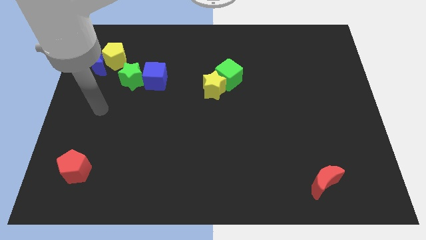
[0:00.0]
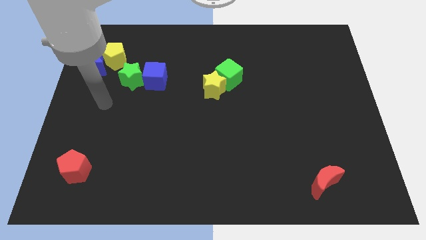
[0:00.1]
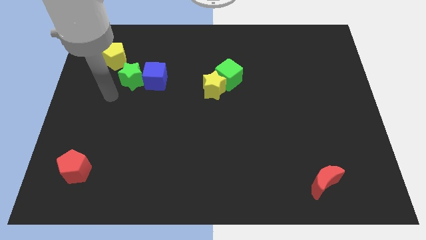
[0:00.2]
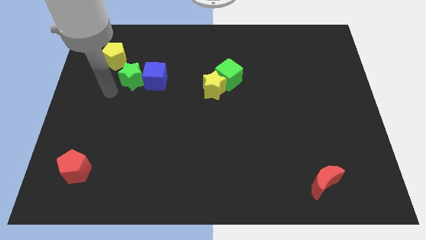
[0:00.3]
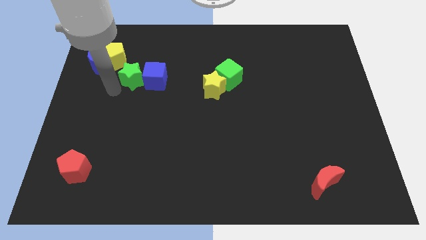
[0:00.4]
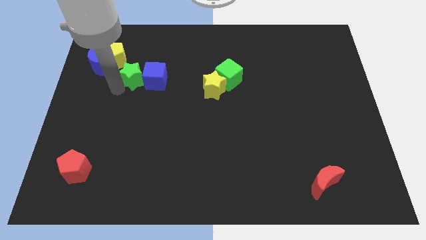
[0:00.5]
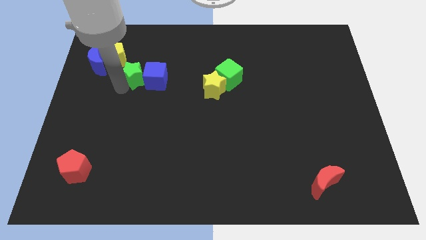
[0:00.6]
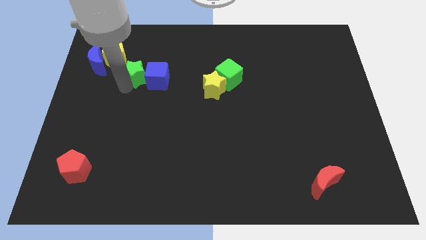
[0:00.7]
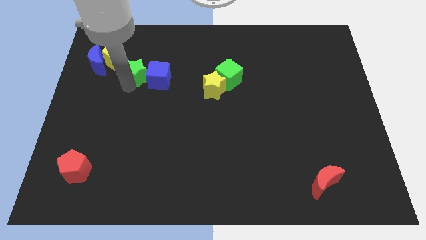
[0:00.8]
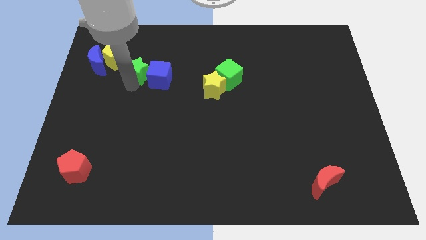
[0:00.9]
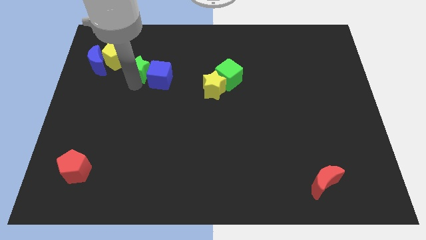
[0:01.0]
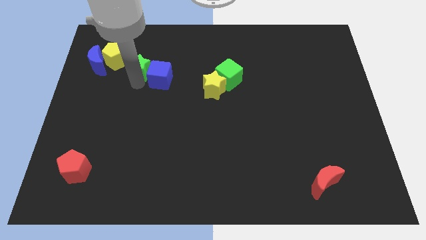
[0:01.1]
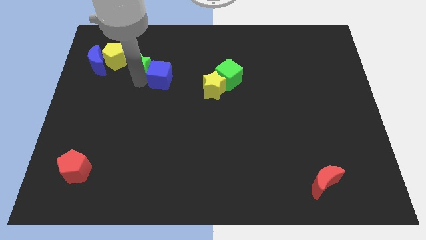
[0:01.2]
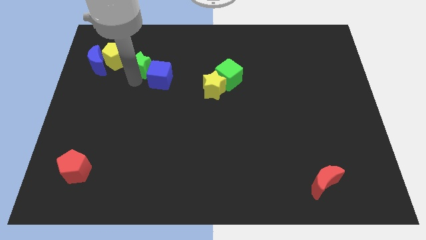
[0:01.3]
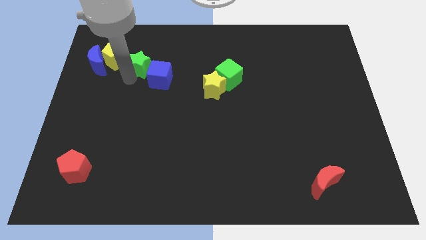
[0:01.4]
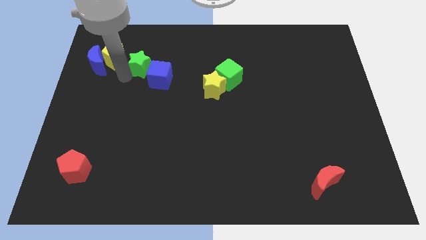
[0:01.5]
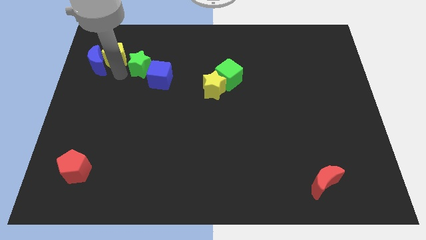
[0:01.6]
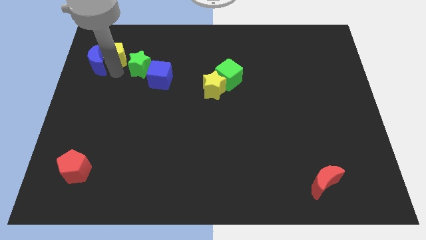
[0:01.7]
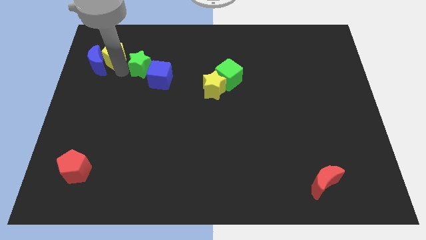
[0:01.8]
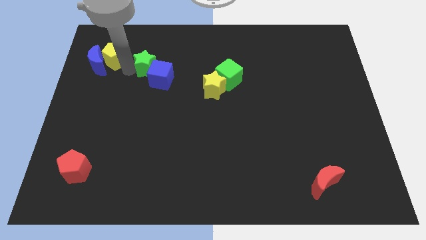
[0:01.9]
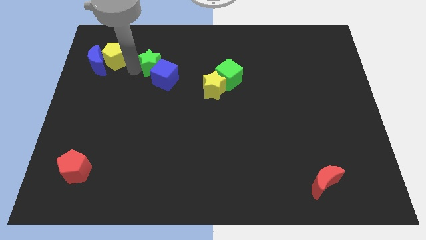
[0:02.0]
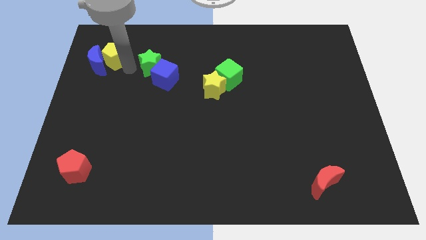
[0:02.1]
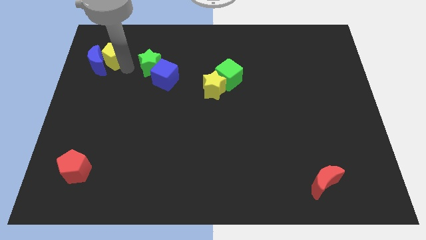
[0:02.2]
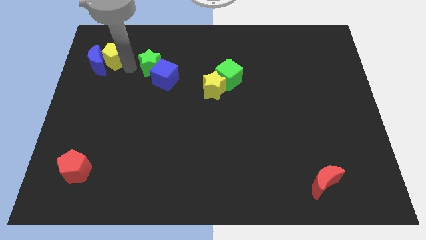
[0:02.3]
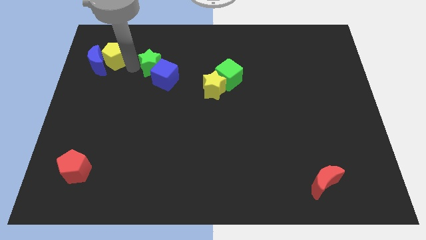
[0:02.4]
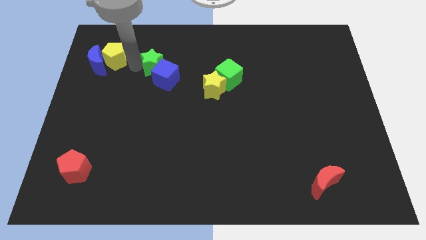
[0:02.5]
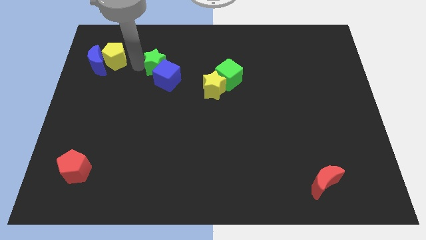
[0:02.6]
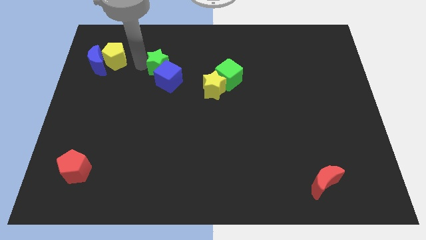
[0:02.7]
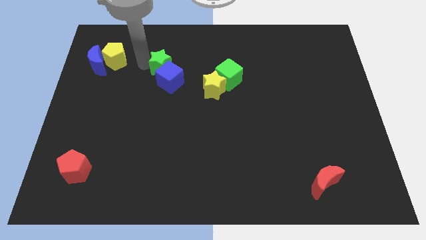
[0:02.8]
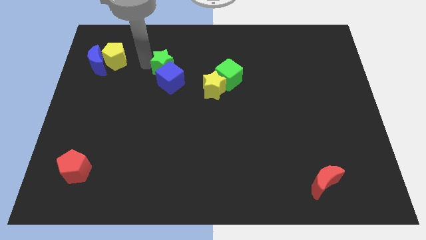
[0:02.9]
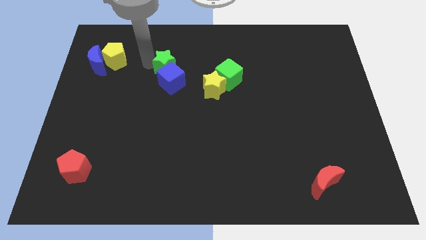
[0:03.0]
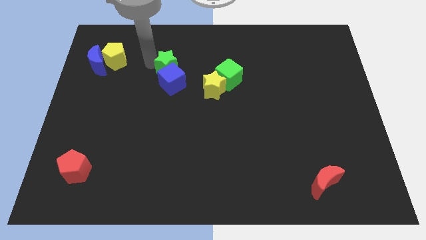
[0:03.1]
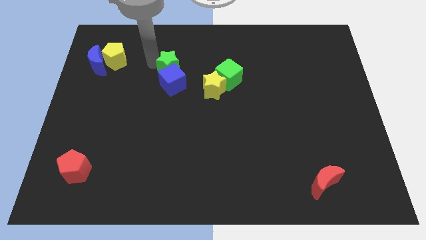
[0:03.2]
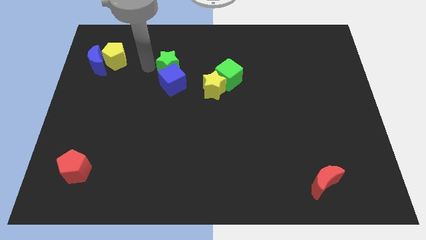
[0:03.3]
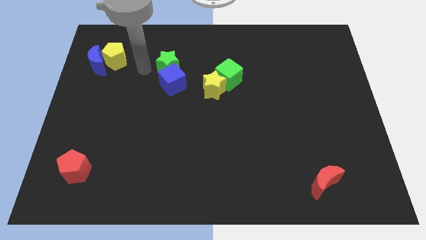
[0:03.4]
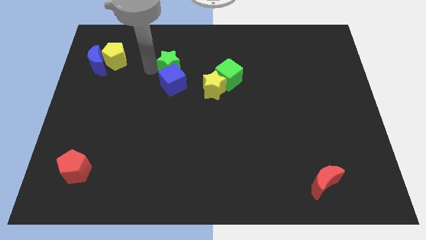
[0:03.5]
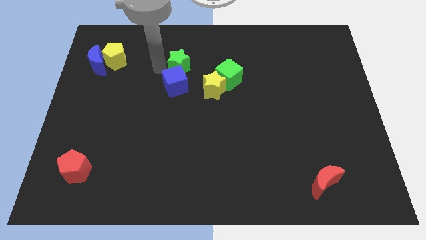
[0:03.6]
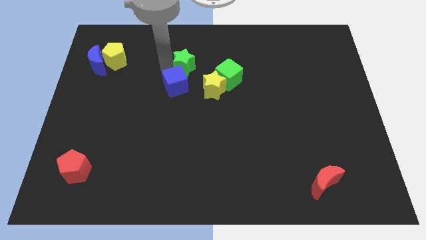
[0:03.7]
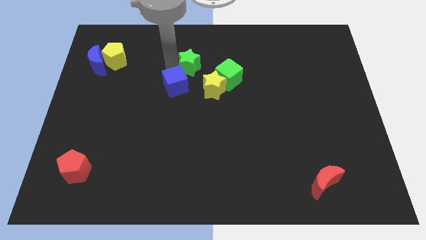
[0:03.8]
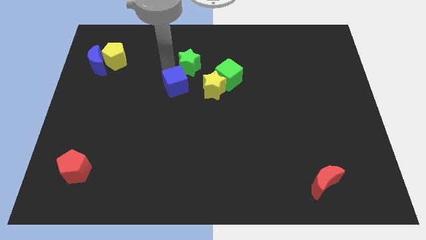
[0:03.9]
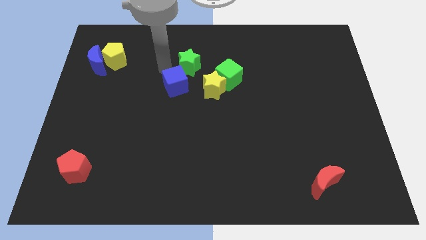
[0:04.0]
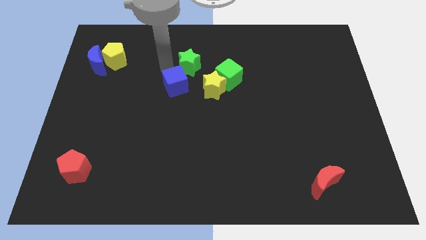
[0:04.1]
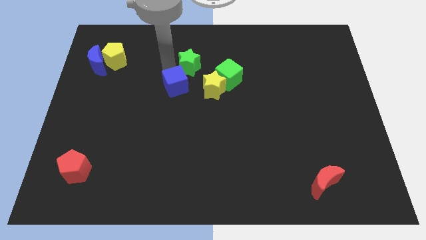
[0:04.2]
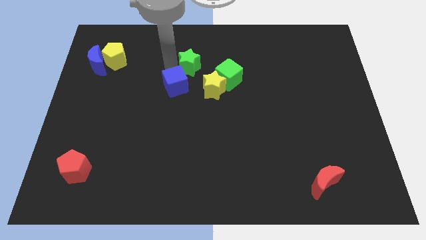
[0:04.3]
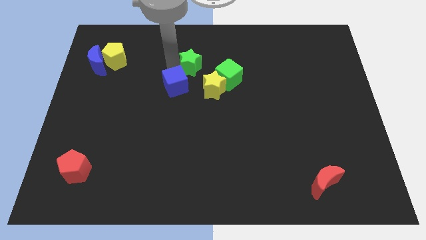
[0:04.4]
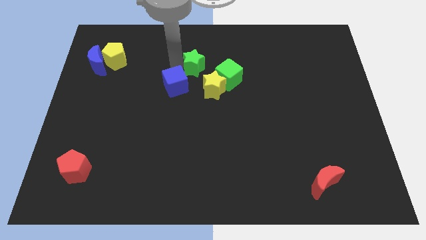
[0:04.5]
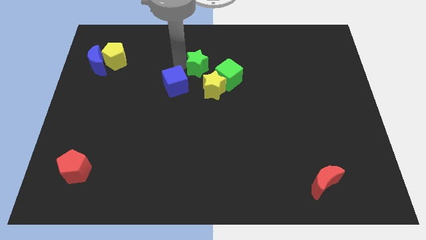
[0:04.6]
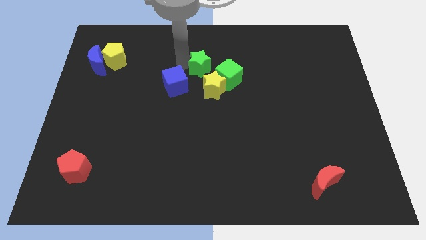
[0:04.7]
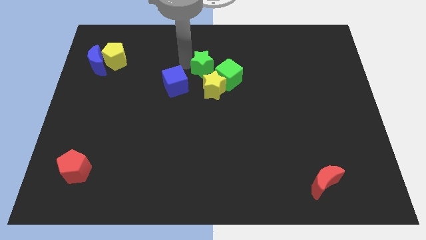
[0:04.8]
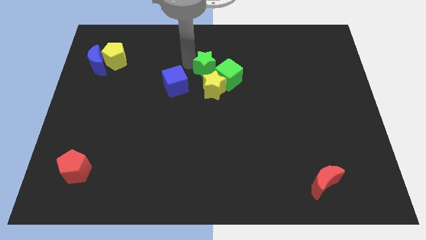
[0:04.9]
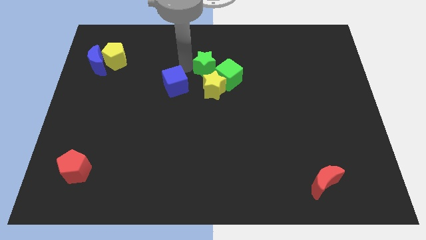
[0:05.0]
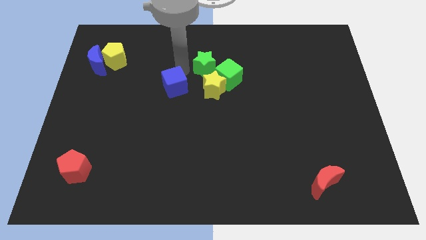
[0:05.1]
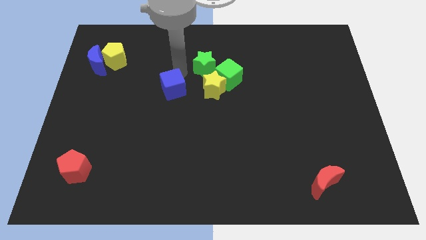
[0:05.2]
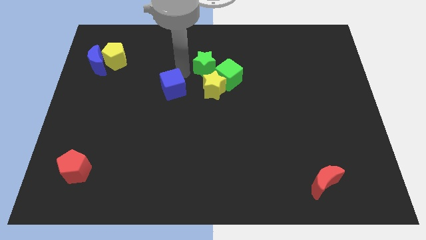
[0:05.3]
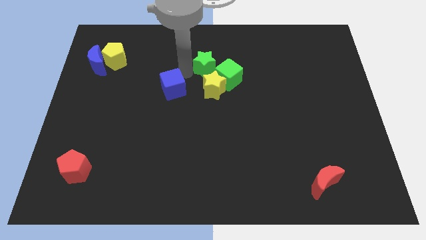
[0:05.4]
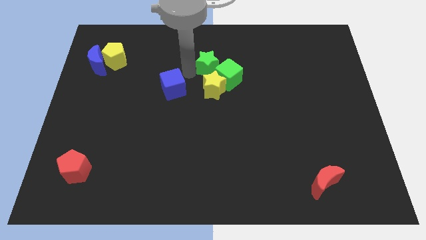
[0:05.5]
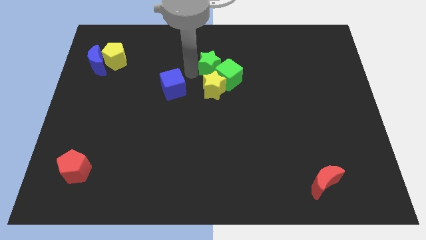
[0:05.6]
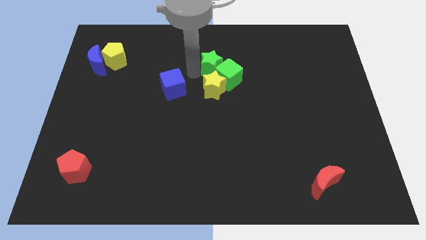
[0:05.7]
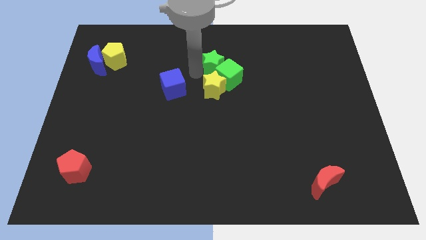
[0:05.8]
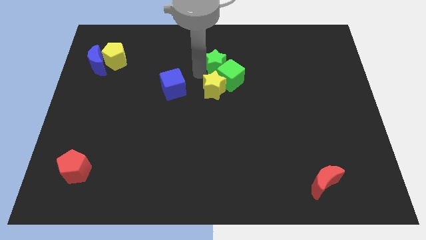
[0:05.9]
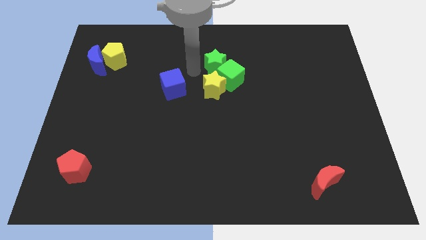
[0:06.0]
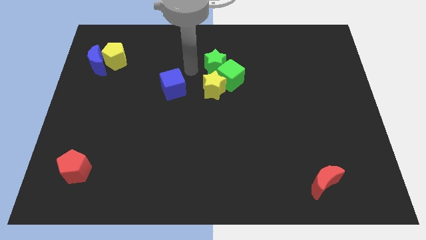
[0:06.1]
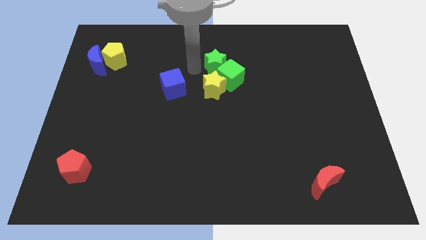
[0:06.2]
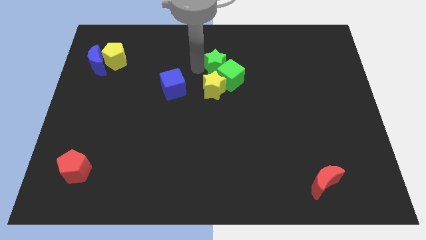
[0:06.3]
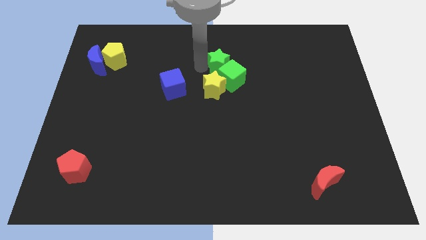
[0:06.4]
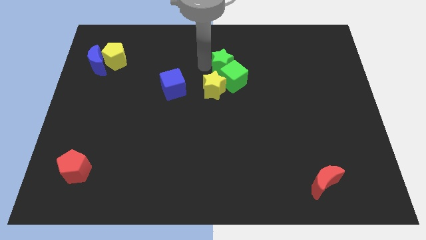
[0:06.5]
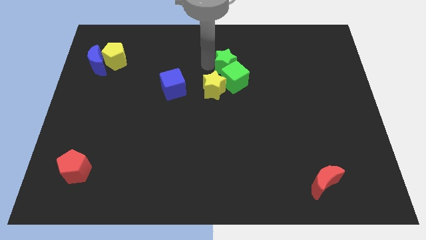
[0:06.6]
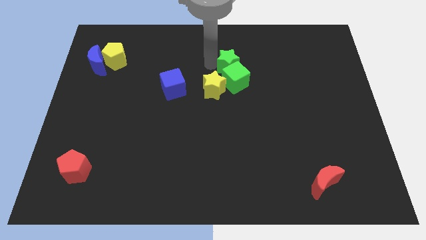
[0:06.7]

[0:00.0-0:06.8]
push the green star to the top right side of the green cube

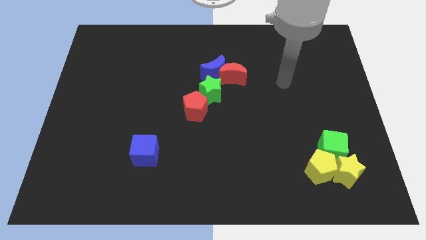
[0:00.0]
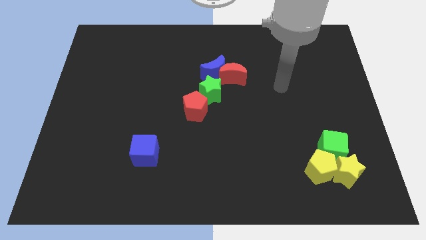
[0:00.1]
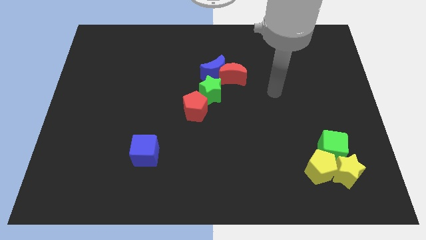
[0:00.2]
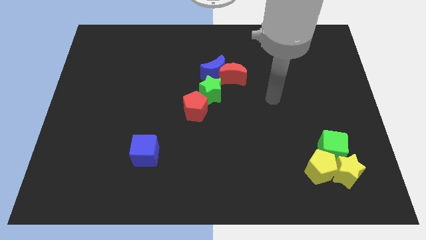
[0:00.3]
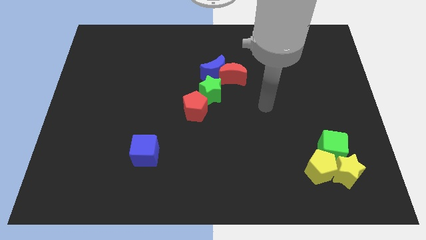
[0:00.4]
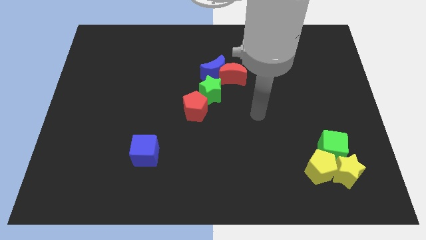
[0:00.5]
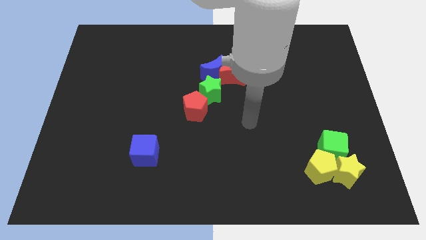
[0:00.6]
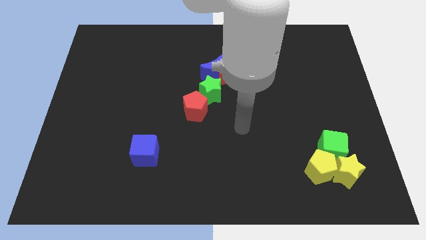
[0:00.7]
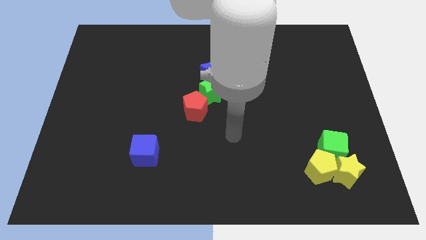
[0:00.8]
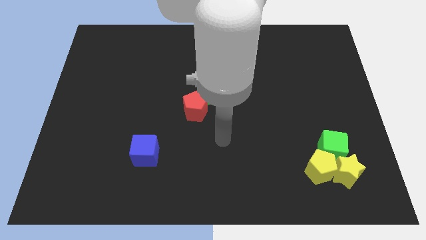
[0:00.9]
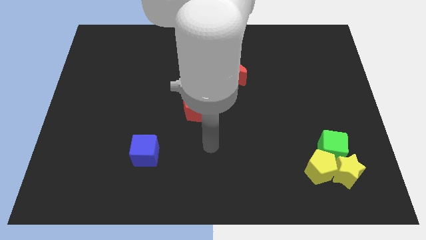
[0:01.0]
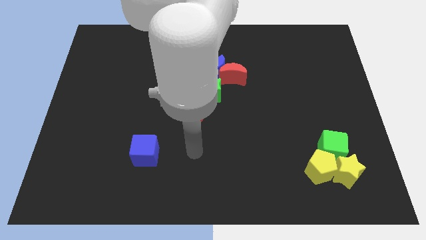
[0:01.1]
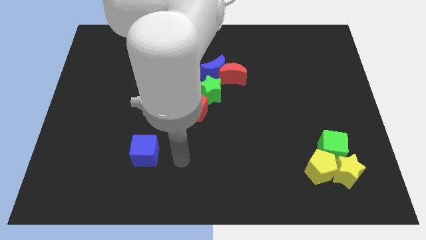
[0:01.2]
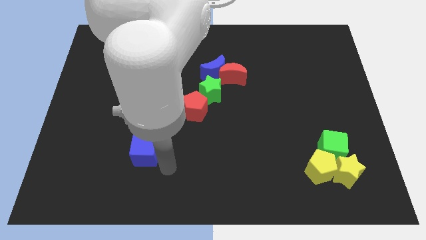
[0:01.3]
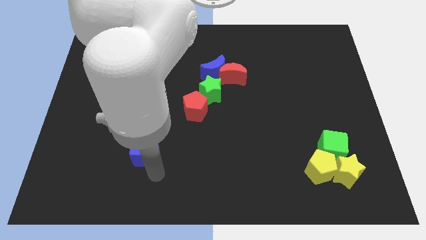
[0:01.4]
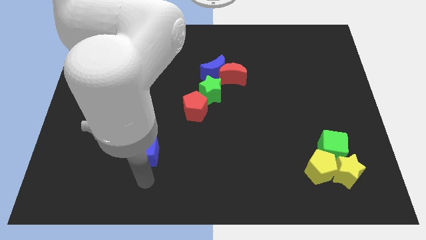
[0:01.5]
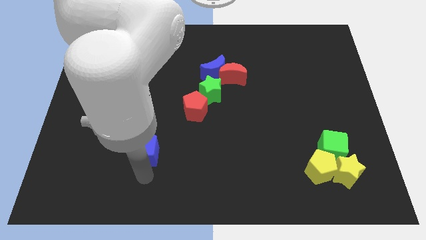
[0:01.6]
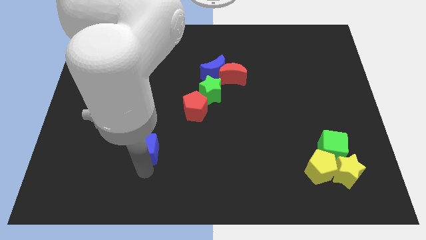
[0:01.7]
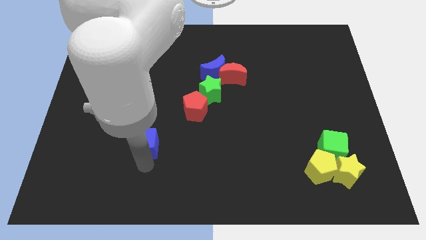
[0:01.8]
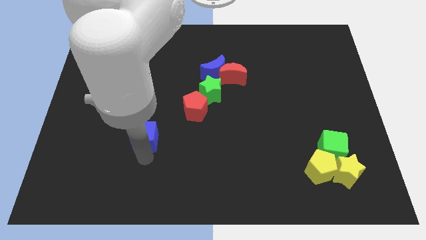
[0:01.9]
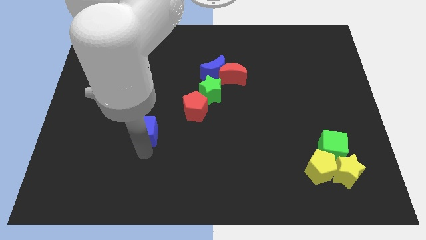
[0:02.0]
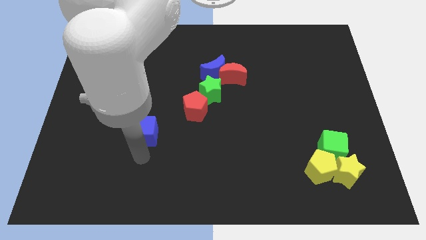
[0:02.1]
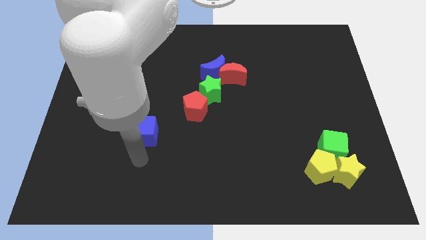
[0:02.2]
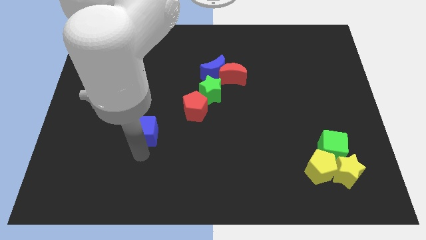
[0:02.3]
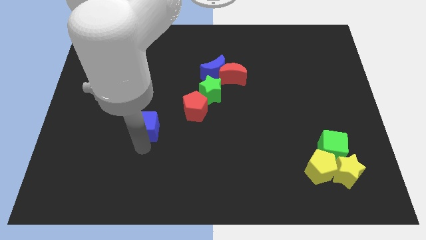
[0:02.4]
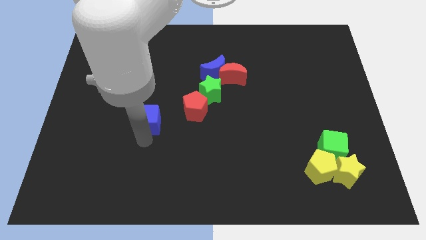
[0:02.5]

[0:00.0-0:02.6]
move the blue cube to the left of the red pentagon
